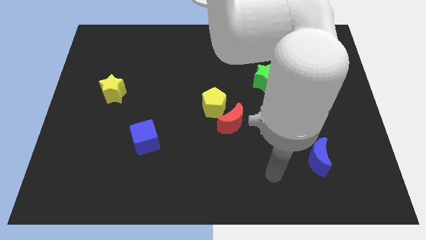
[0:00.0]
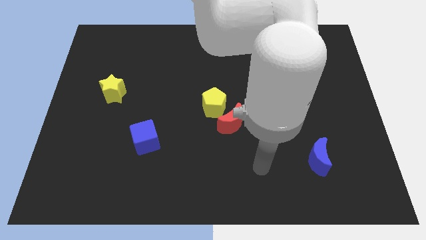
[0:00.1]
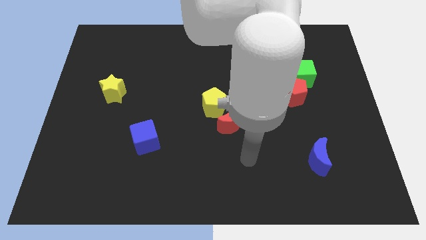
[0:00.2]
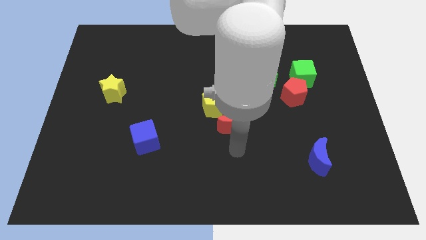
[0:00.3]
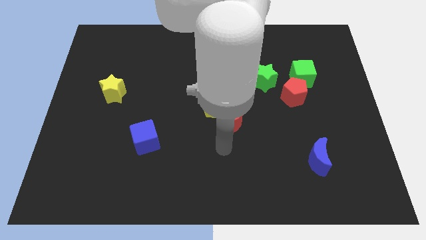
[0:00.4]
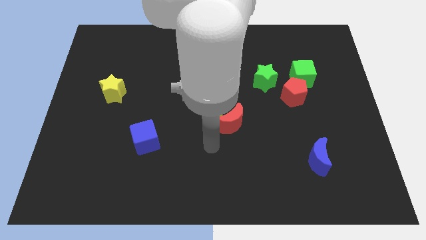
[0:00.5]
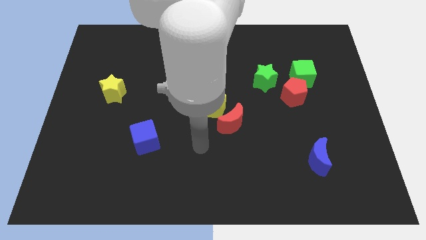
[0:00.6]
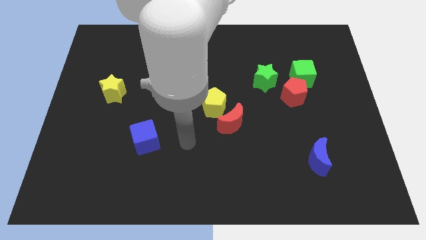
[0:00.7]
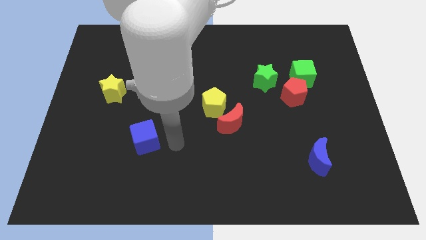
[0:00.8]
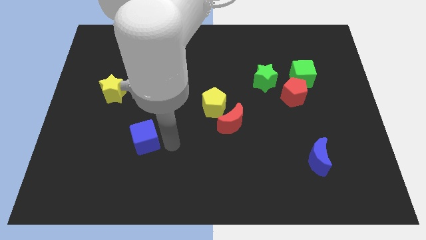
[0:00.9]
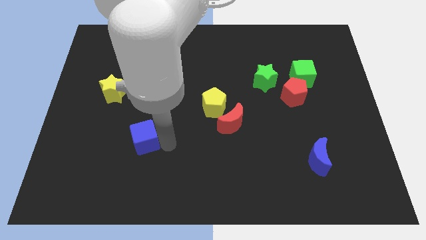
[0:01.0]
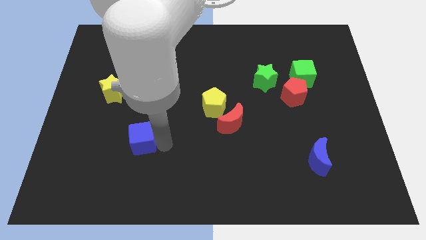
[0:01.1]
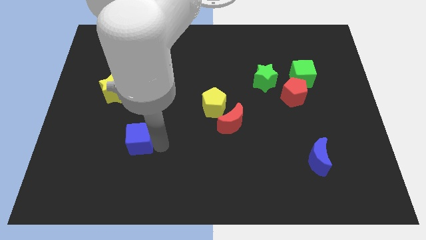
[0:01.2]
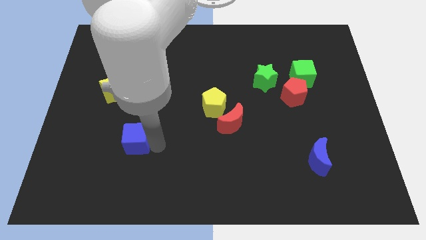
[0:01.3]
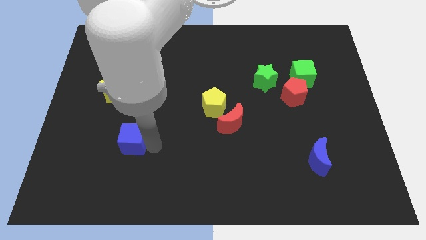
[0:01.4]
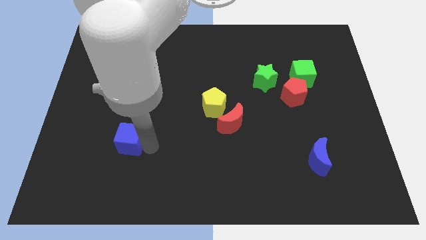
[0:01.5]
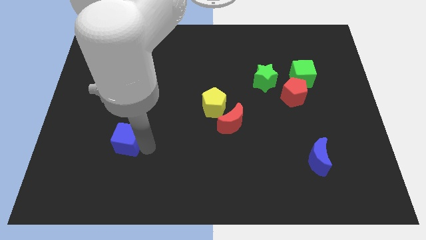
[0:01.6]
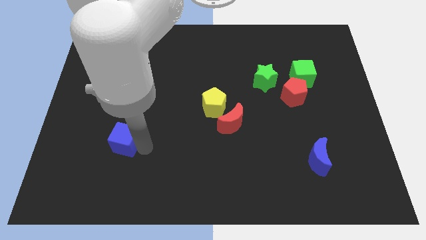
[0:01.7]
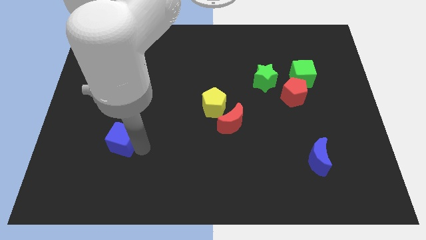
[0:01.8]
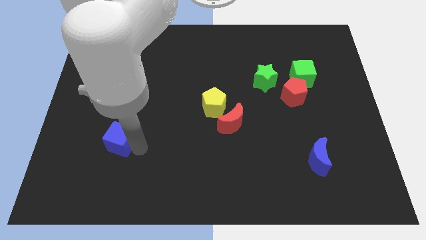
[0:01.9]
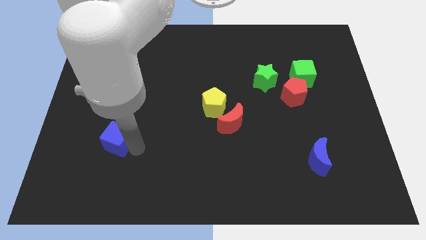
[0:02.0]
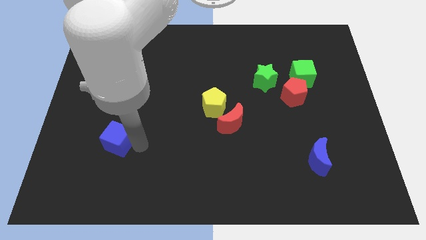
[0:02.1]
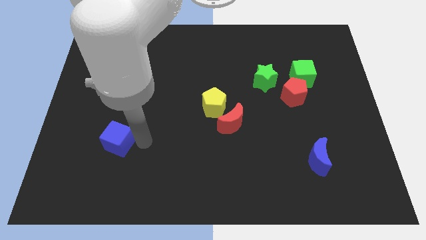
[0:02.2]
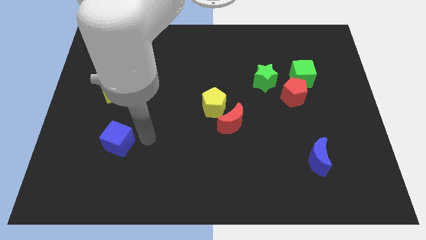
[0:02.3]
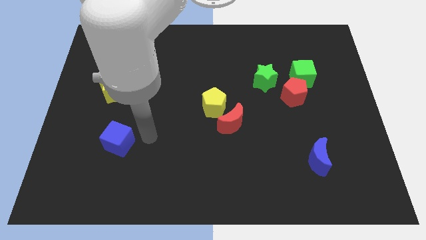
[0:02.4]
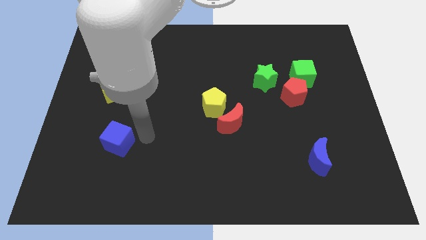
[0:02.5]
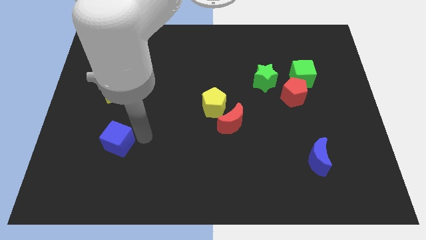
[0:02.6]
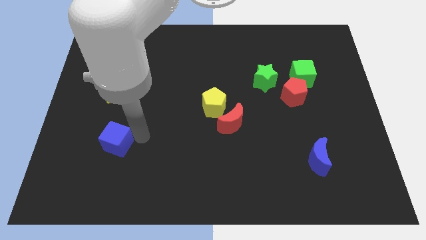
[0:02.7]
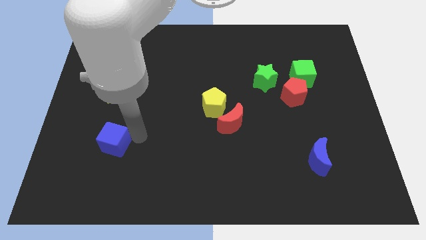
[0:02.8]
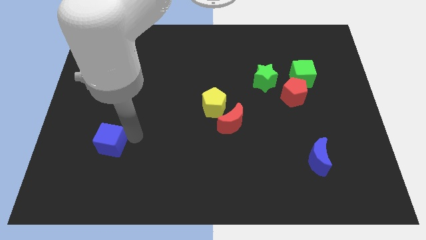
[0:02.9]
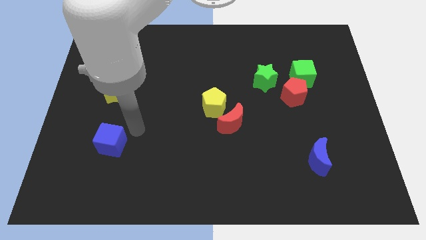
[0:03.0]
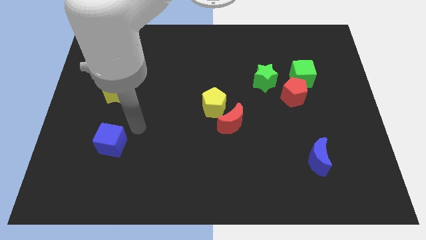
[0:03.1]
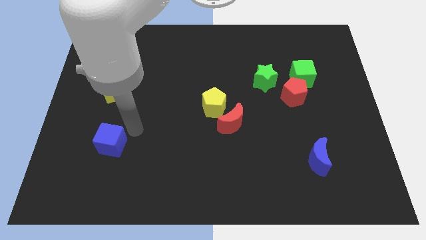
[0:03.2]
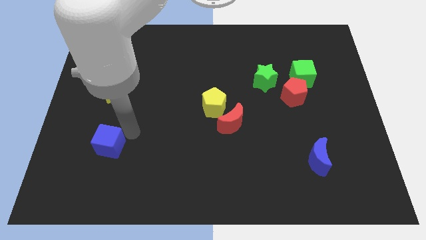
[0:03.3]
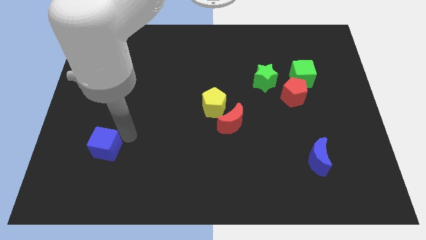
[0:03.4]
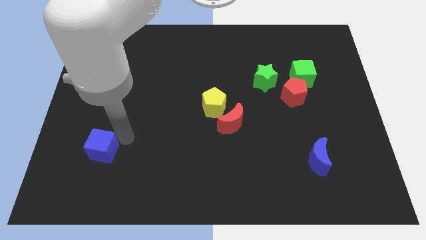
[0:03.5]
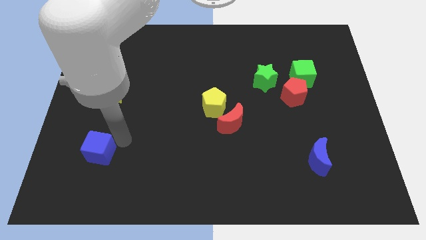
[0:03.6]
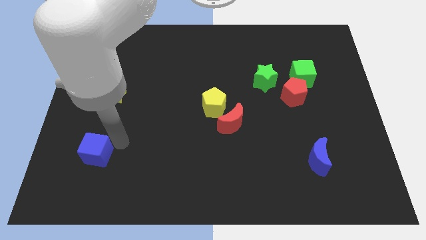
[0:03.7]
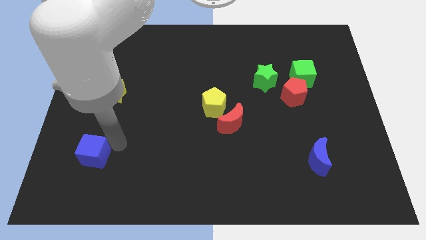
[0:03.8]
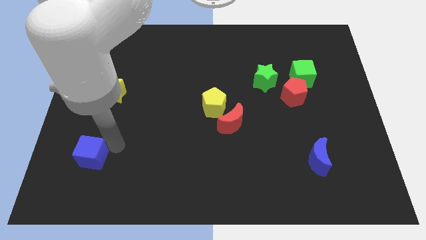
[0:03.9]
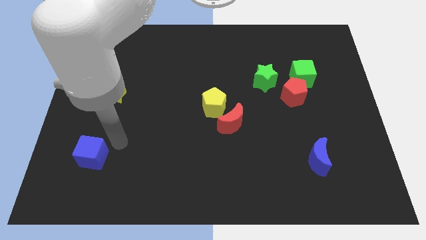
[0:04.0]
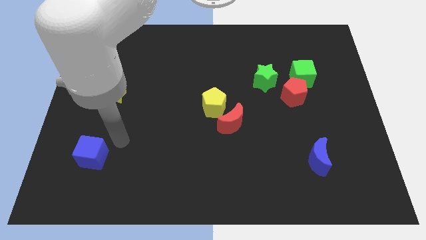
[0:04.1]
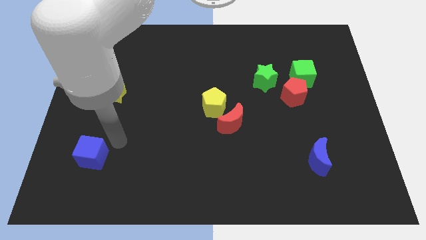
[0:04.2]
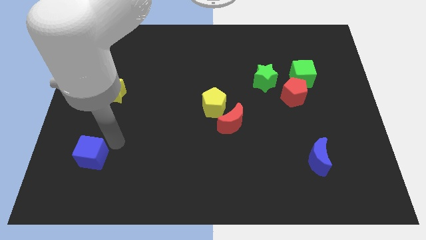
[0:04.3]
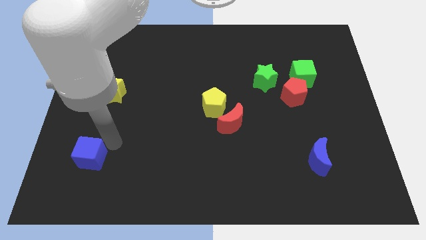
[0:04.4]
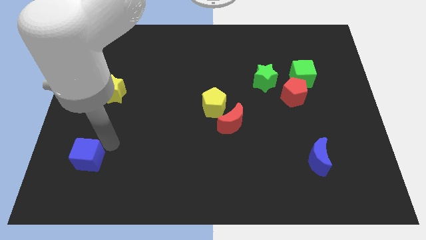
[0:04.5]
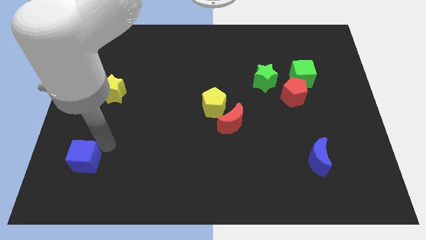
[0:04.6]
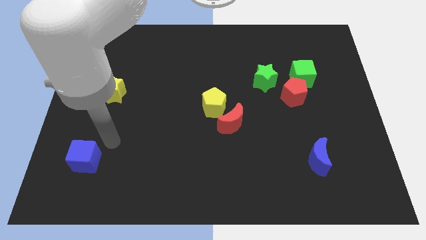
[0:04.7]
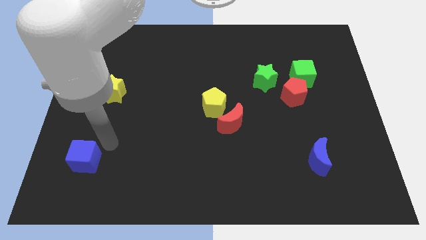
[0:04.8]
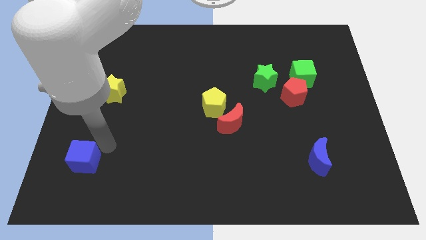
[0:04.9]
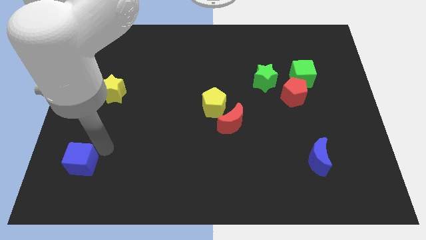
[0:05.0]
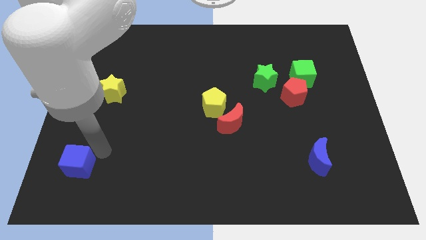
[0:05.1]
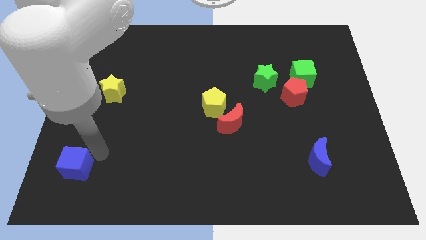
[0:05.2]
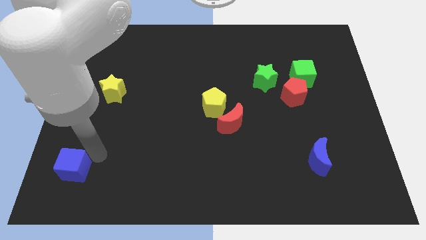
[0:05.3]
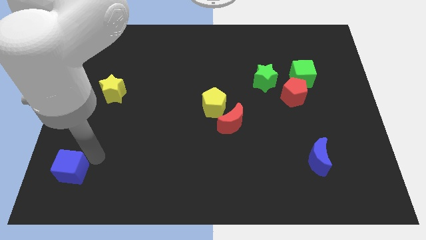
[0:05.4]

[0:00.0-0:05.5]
push the blue cube to the bottom left

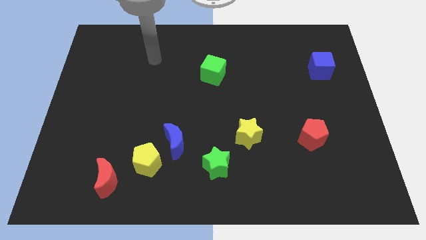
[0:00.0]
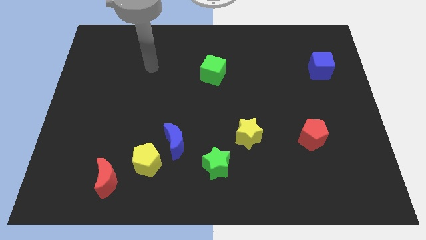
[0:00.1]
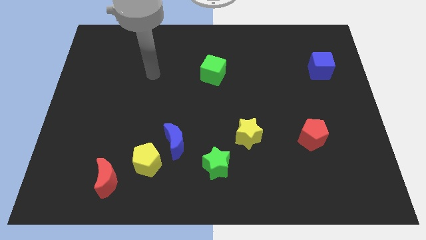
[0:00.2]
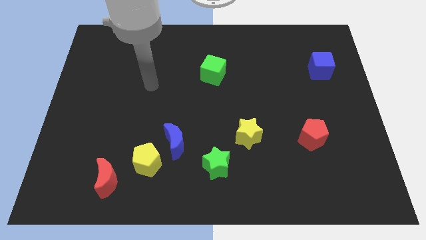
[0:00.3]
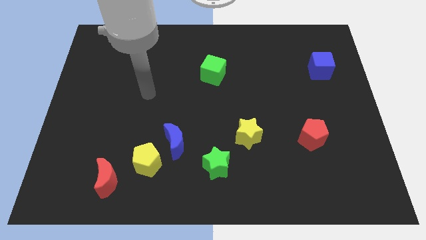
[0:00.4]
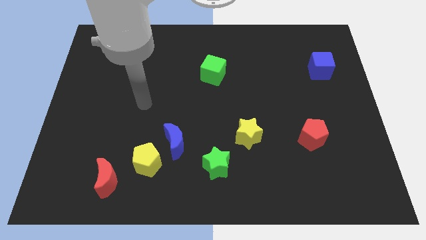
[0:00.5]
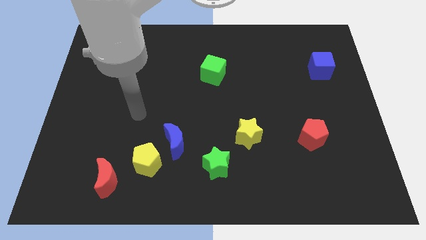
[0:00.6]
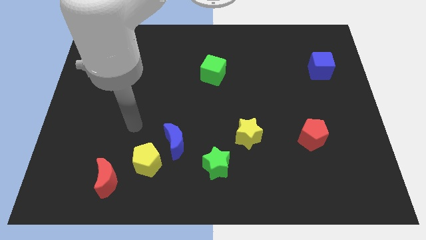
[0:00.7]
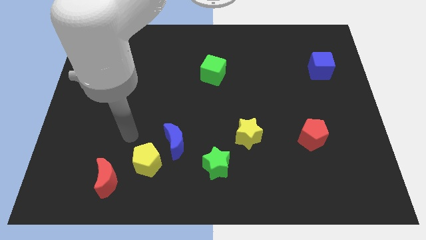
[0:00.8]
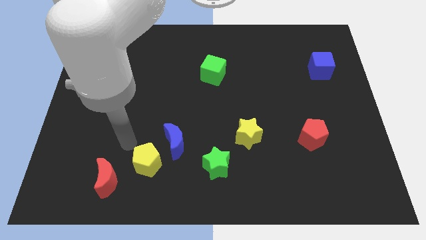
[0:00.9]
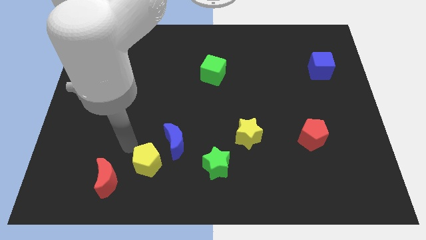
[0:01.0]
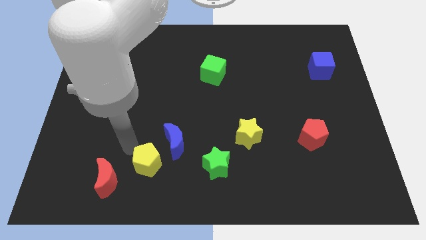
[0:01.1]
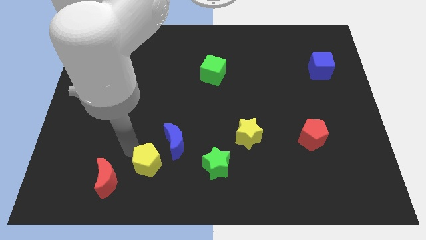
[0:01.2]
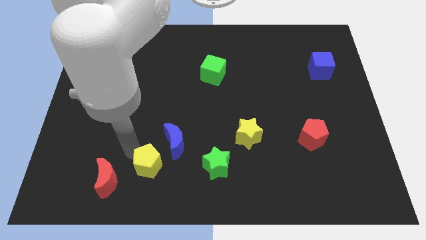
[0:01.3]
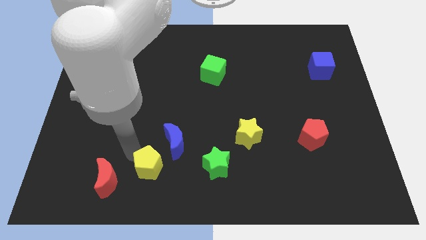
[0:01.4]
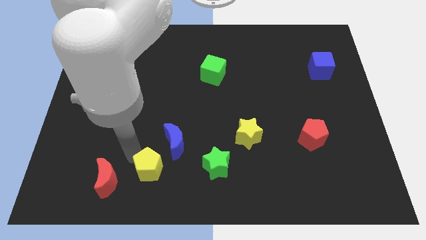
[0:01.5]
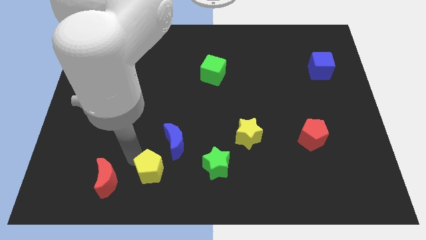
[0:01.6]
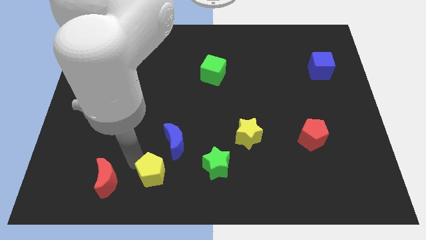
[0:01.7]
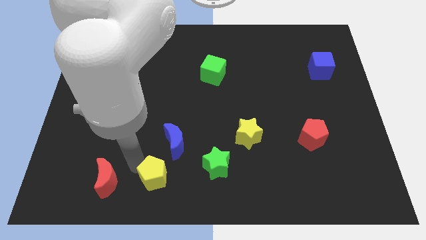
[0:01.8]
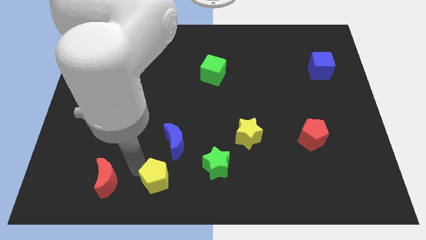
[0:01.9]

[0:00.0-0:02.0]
push the yellow pentagon to the bottom side
